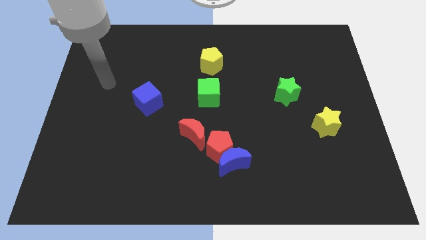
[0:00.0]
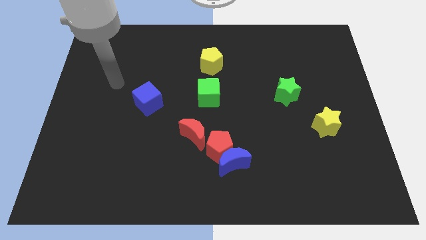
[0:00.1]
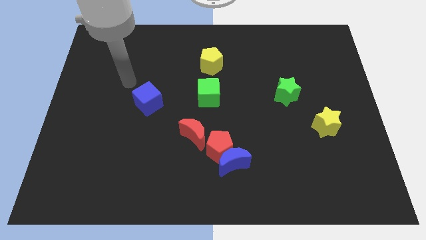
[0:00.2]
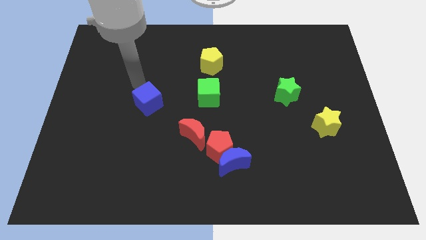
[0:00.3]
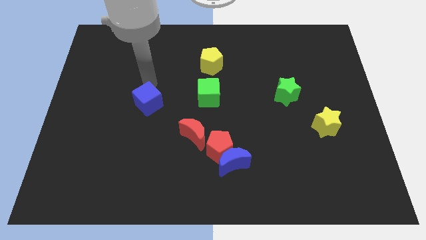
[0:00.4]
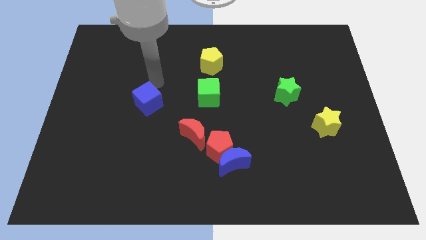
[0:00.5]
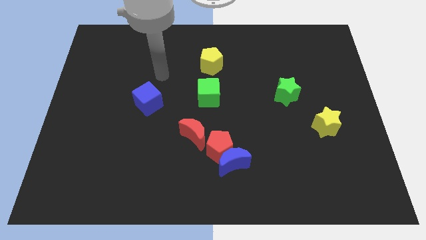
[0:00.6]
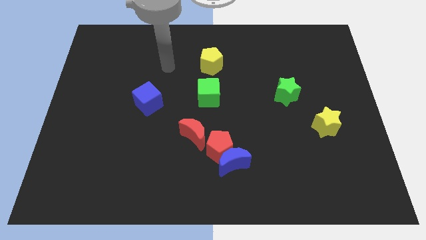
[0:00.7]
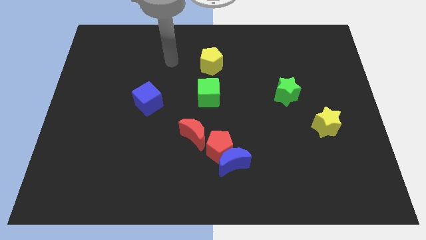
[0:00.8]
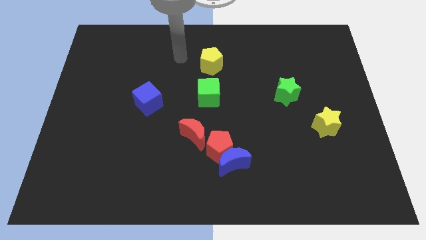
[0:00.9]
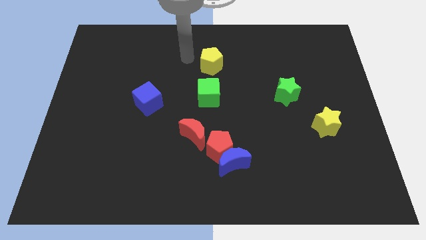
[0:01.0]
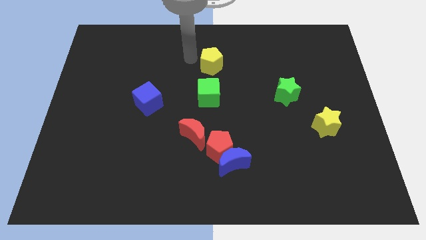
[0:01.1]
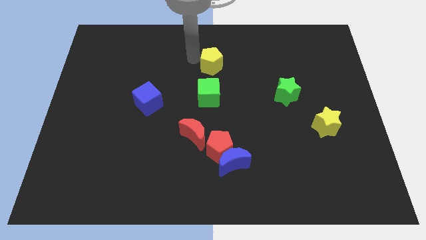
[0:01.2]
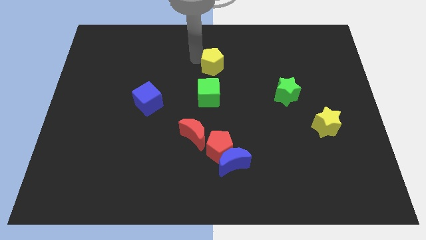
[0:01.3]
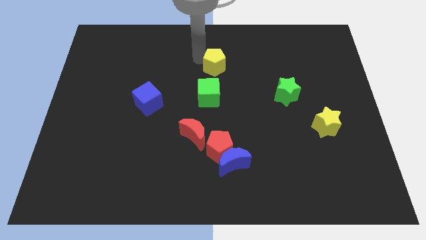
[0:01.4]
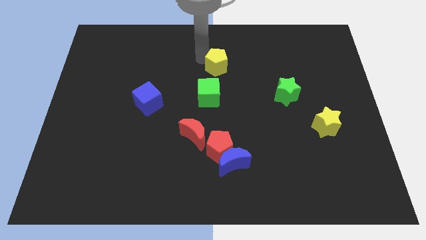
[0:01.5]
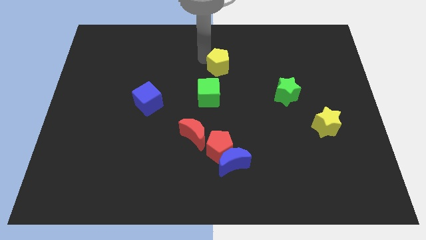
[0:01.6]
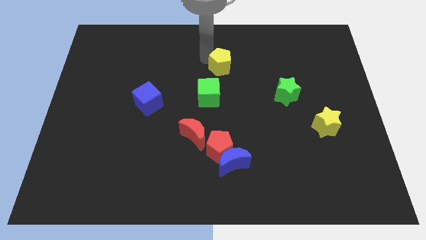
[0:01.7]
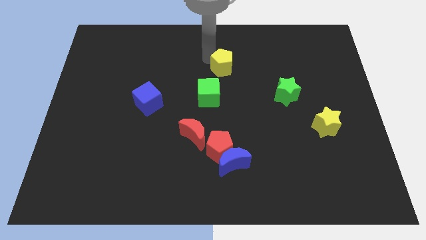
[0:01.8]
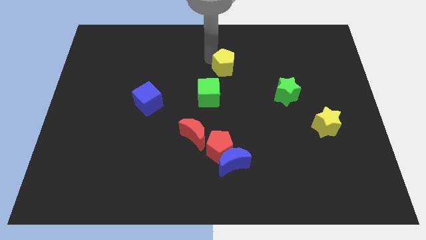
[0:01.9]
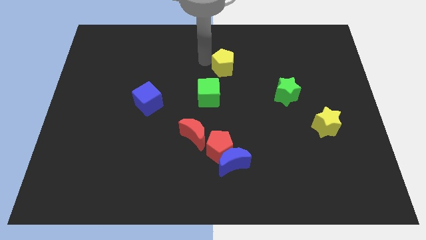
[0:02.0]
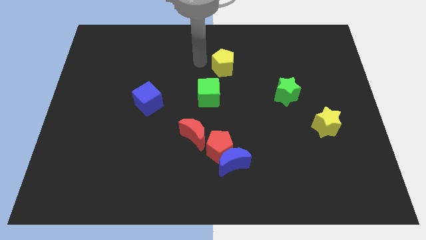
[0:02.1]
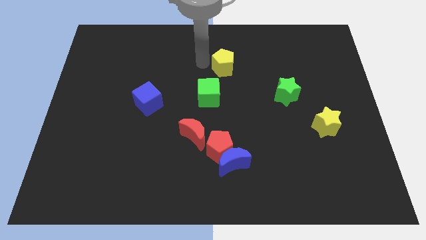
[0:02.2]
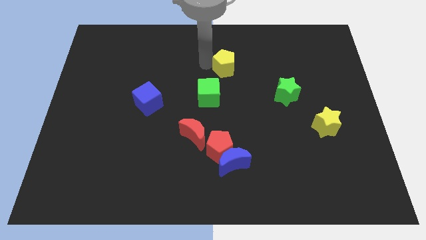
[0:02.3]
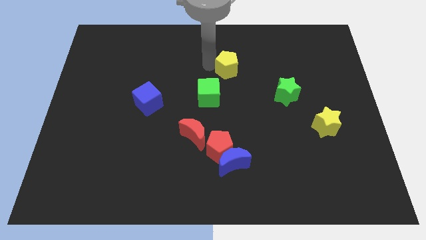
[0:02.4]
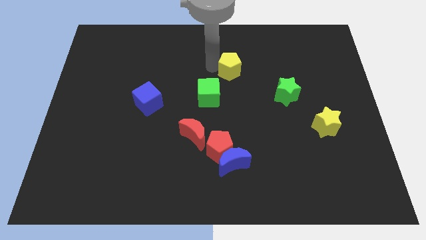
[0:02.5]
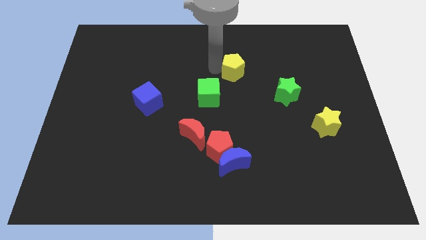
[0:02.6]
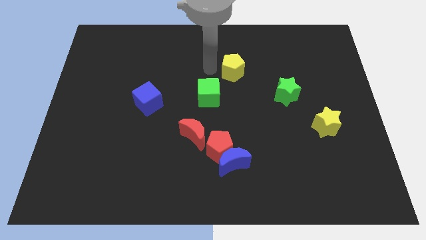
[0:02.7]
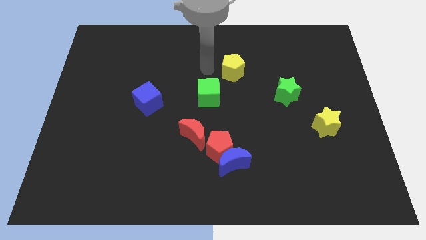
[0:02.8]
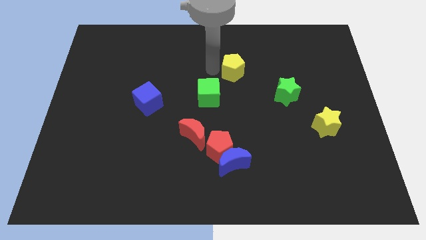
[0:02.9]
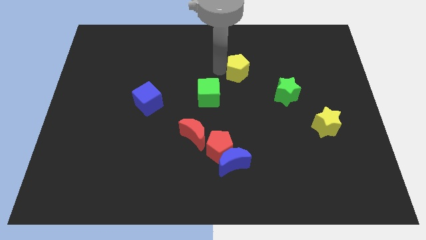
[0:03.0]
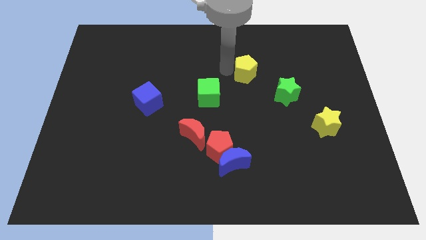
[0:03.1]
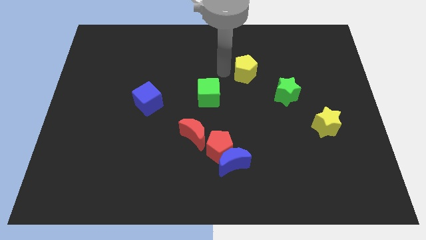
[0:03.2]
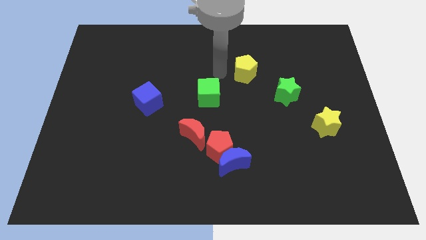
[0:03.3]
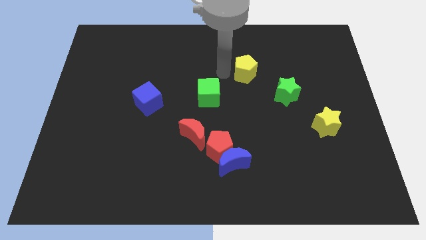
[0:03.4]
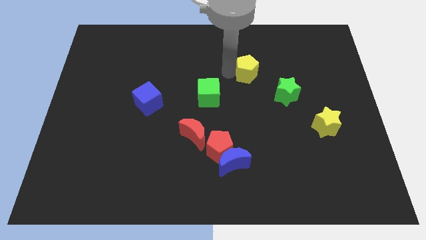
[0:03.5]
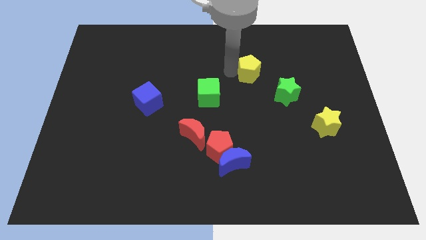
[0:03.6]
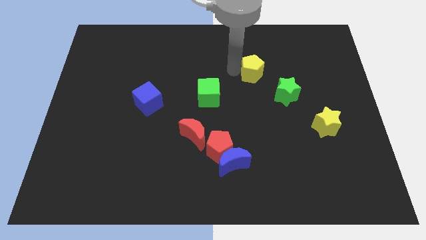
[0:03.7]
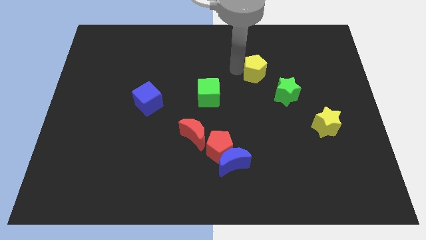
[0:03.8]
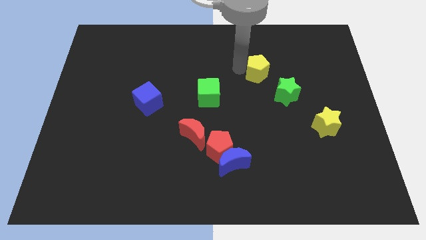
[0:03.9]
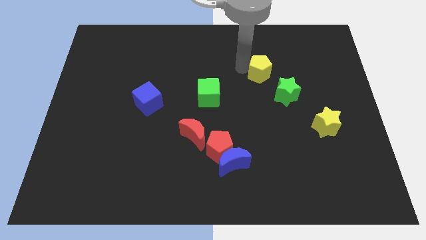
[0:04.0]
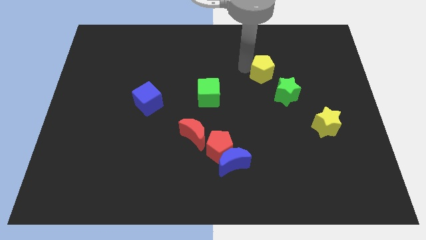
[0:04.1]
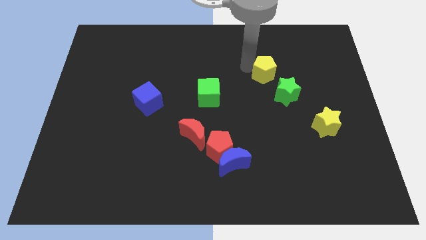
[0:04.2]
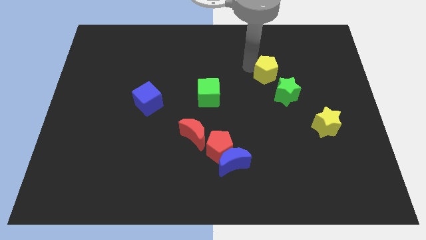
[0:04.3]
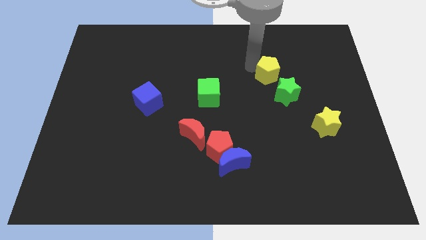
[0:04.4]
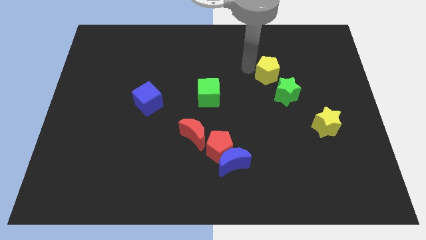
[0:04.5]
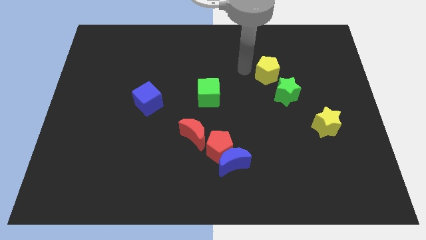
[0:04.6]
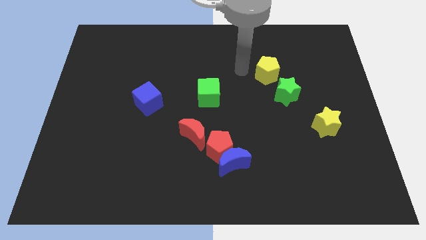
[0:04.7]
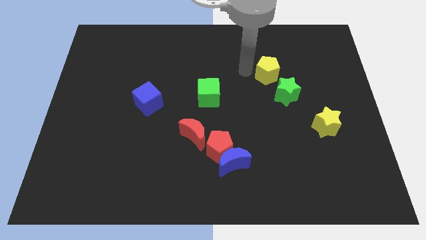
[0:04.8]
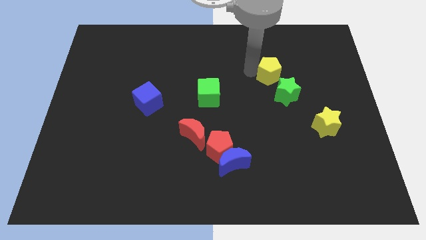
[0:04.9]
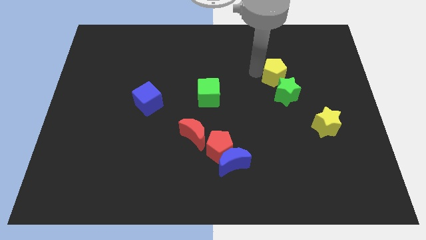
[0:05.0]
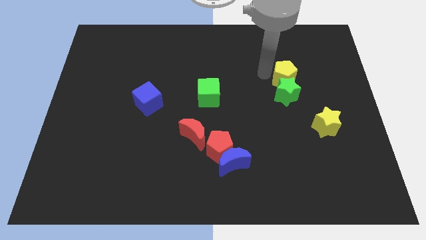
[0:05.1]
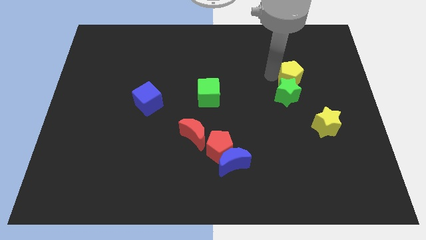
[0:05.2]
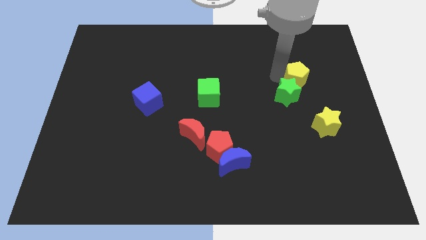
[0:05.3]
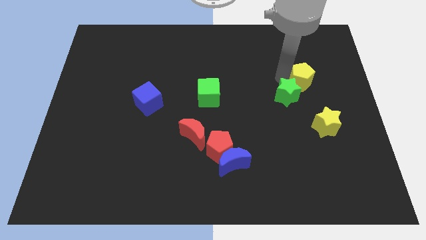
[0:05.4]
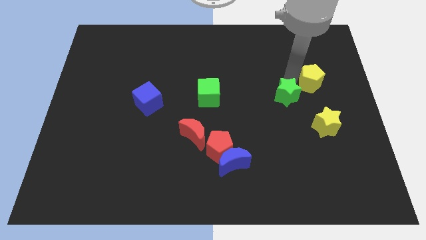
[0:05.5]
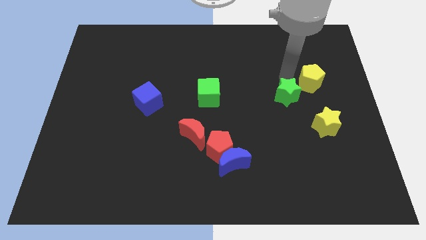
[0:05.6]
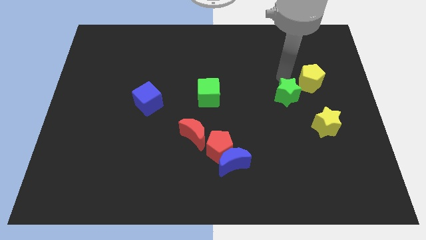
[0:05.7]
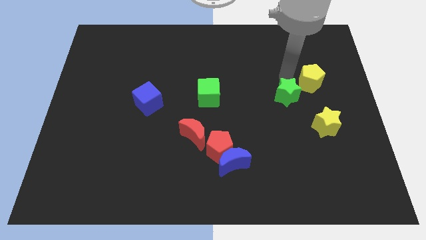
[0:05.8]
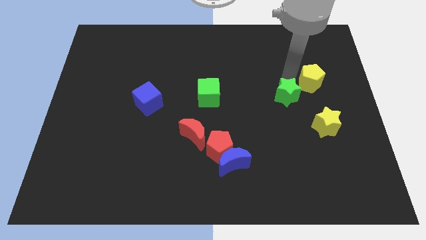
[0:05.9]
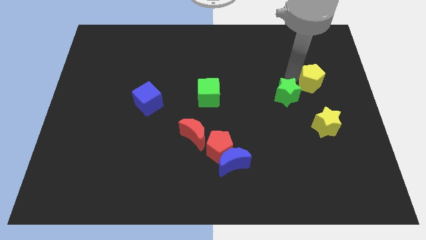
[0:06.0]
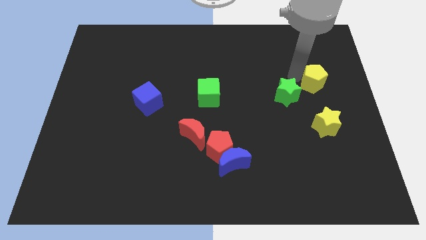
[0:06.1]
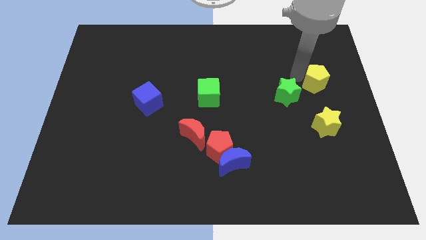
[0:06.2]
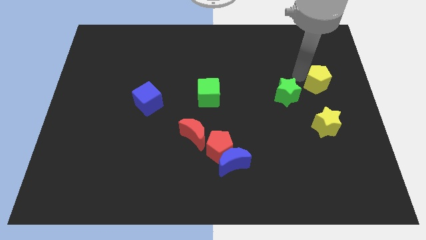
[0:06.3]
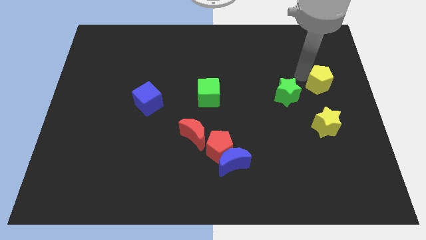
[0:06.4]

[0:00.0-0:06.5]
push the yellow pentagon to the right side
